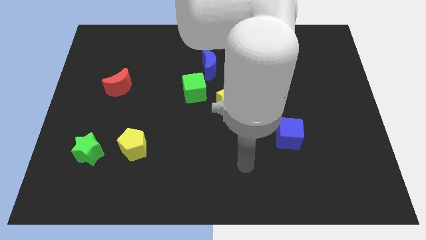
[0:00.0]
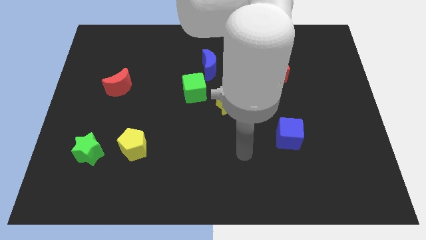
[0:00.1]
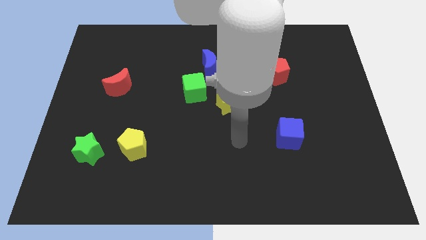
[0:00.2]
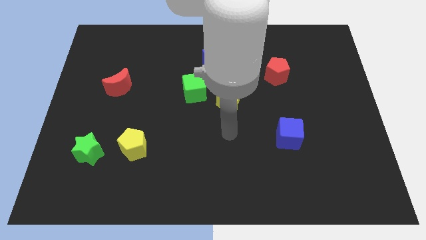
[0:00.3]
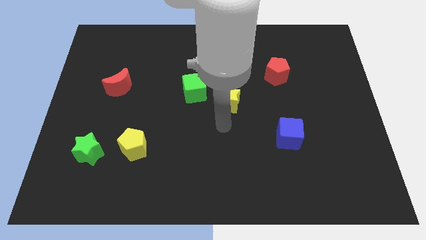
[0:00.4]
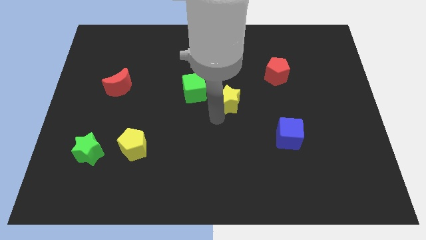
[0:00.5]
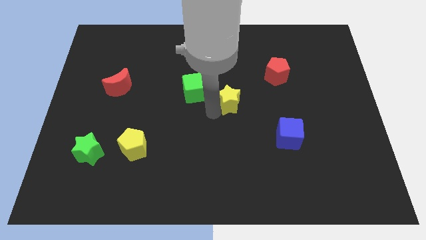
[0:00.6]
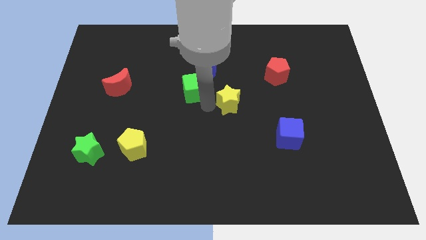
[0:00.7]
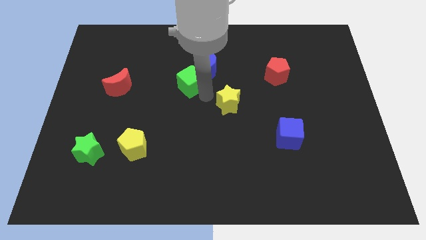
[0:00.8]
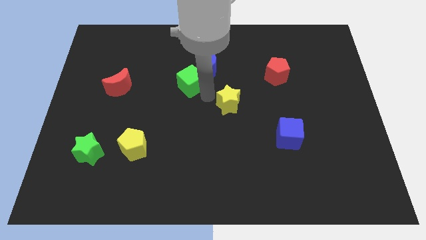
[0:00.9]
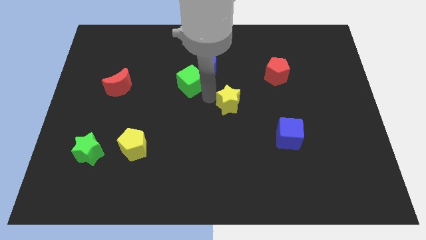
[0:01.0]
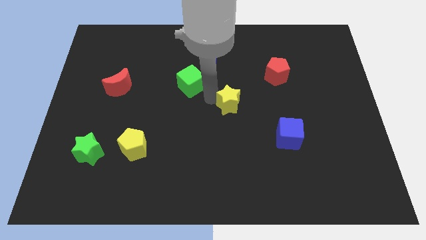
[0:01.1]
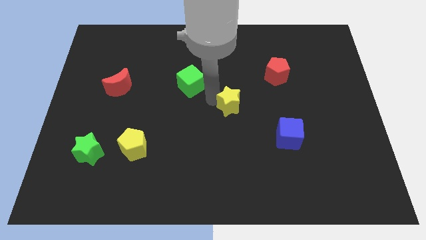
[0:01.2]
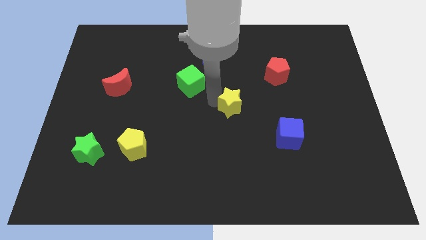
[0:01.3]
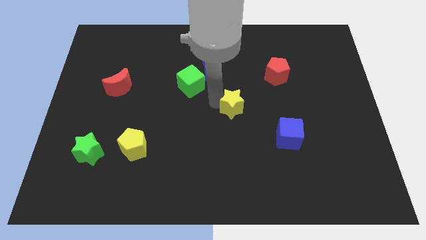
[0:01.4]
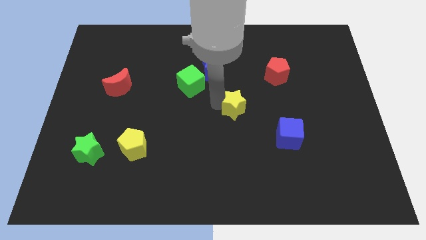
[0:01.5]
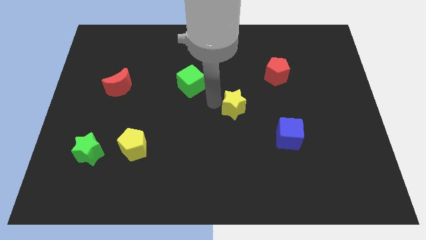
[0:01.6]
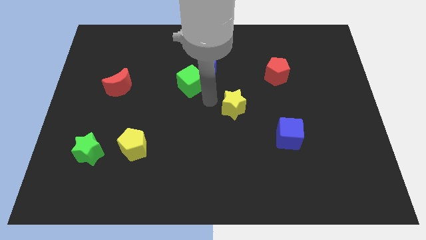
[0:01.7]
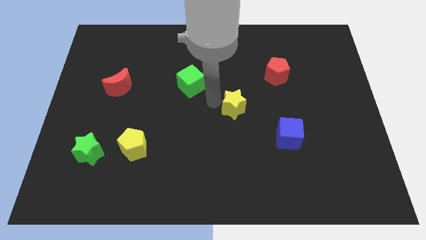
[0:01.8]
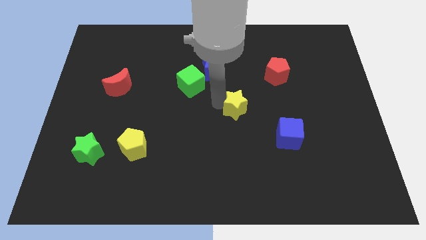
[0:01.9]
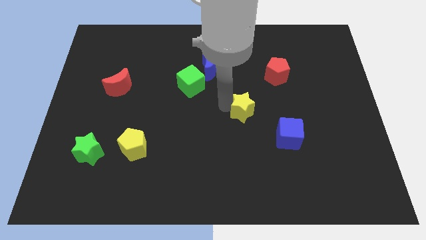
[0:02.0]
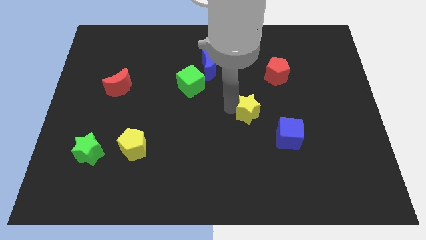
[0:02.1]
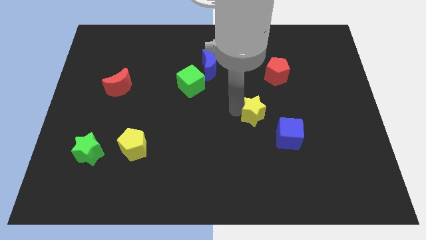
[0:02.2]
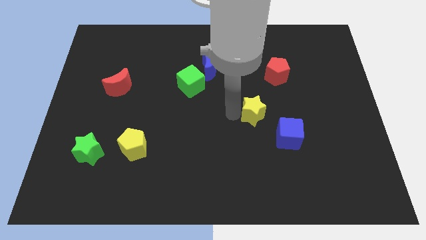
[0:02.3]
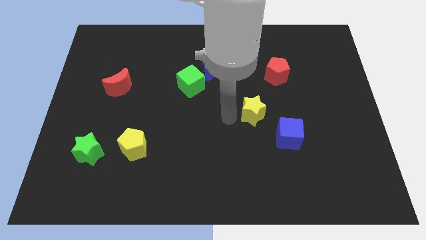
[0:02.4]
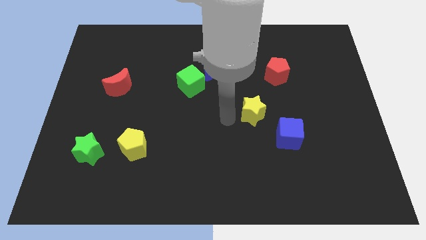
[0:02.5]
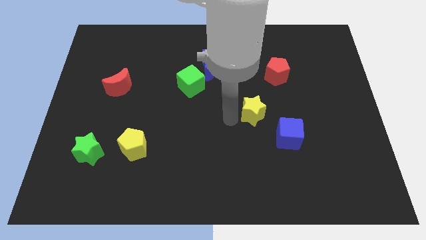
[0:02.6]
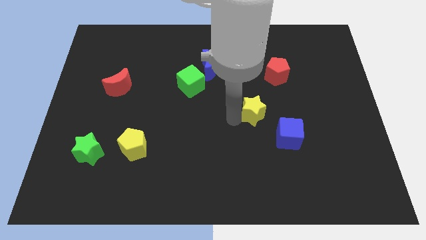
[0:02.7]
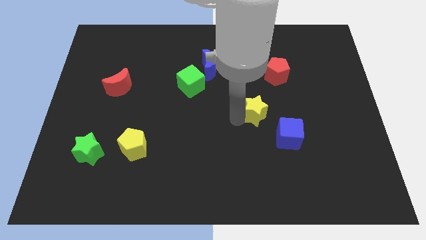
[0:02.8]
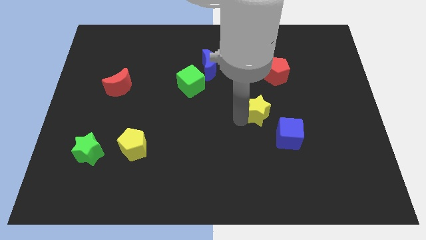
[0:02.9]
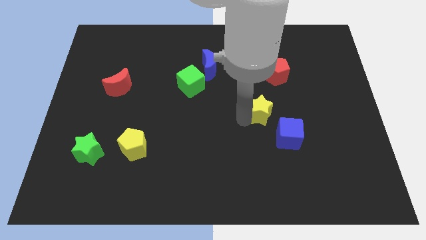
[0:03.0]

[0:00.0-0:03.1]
move the yellow star a little to the right

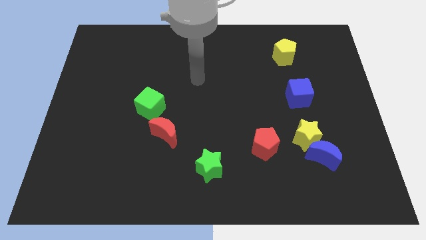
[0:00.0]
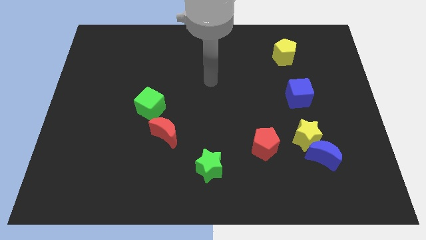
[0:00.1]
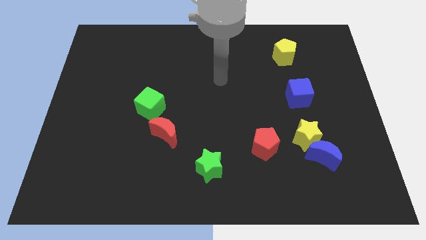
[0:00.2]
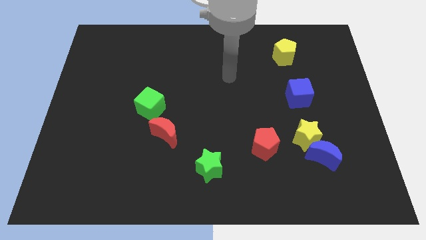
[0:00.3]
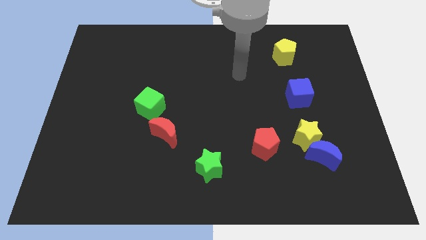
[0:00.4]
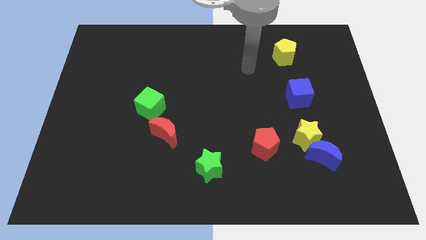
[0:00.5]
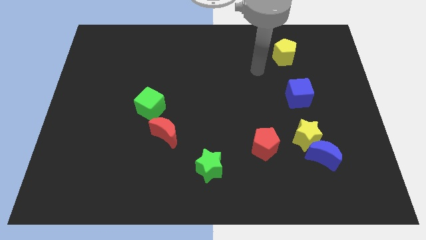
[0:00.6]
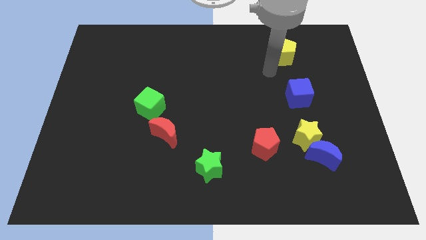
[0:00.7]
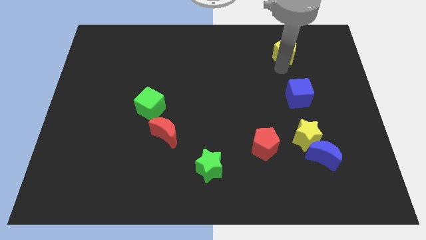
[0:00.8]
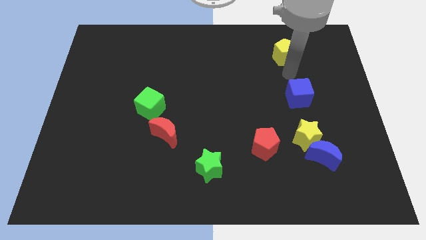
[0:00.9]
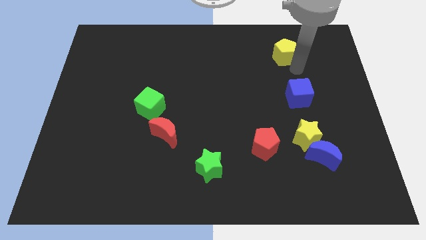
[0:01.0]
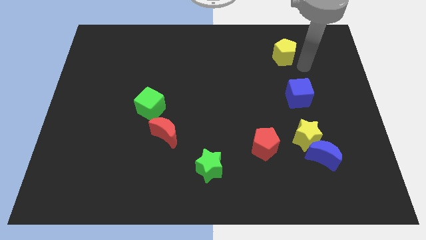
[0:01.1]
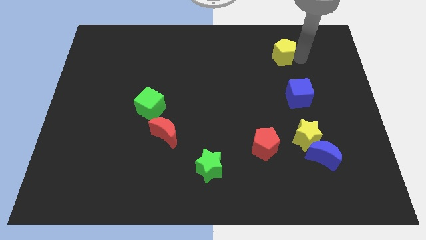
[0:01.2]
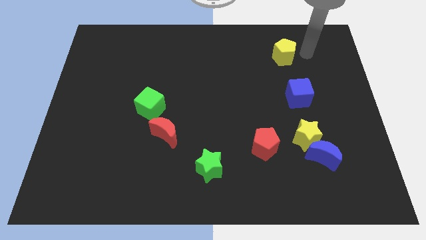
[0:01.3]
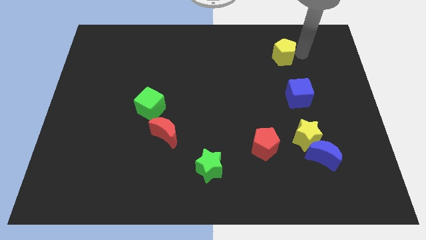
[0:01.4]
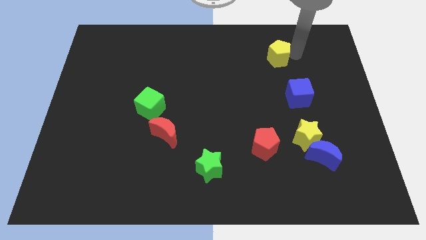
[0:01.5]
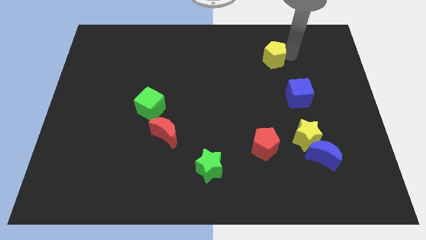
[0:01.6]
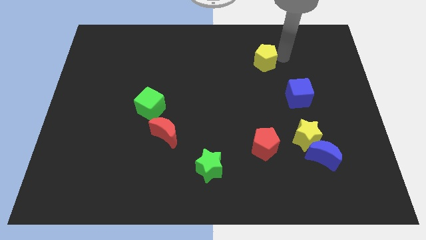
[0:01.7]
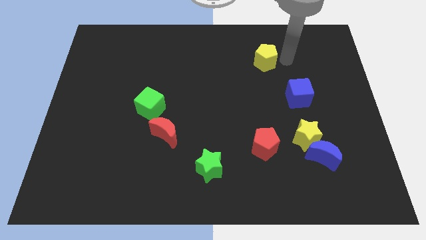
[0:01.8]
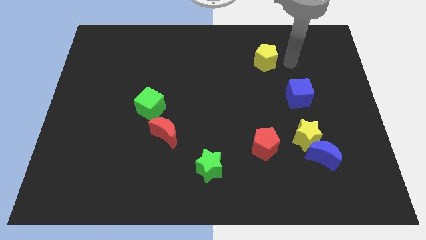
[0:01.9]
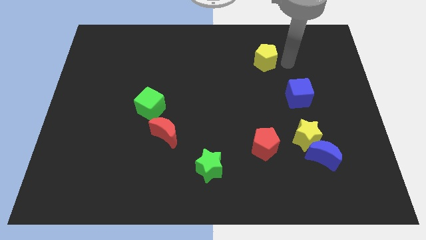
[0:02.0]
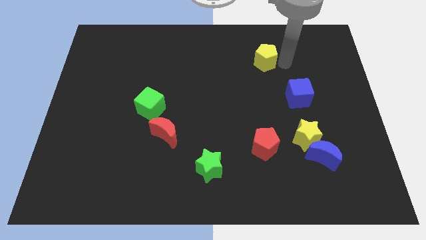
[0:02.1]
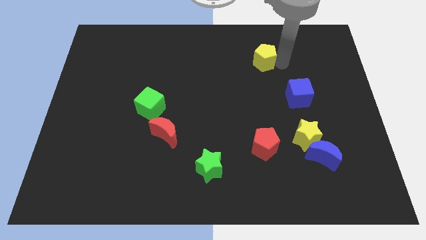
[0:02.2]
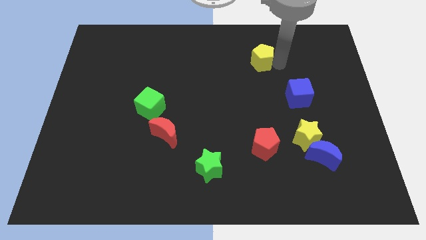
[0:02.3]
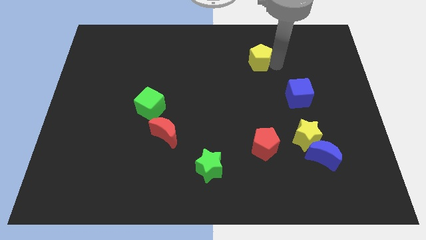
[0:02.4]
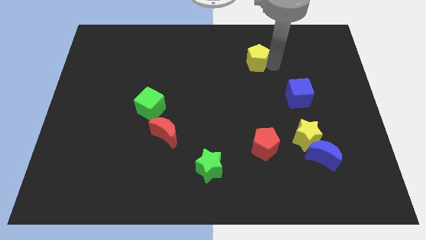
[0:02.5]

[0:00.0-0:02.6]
slightly push the yellow pentagon left

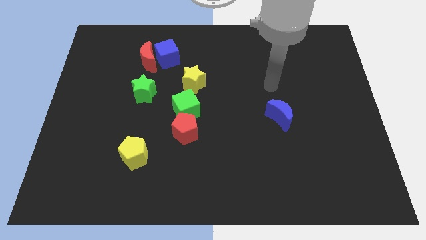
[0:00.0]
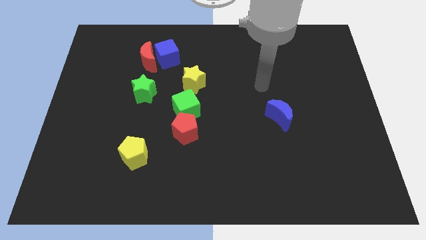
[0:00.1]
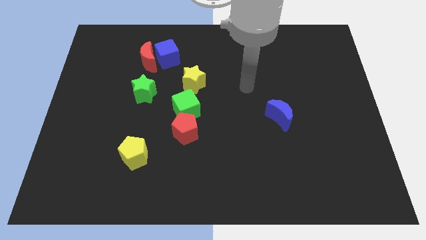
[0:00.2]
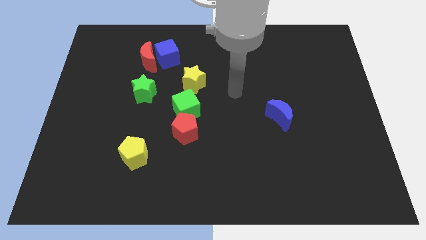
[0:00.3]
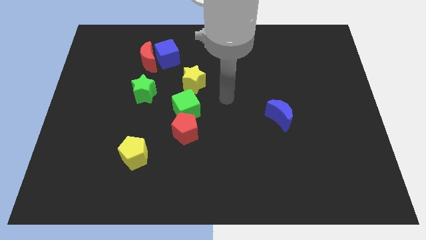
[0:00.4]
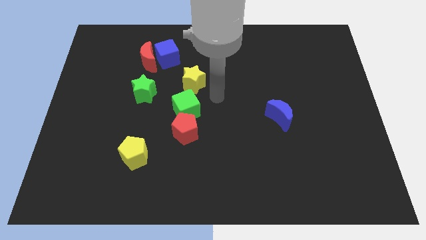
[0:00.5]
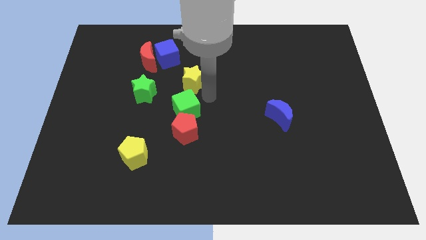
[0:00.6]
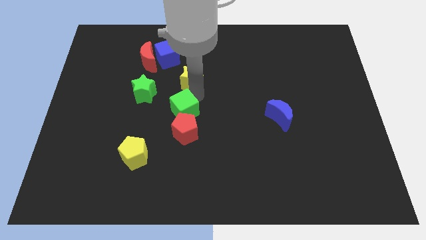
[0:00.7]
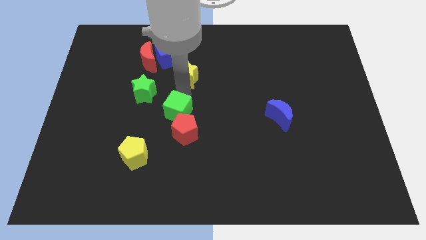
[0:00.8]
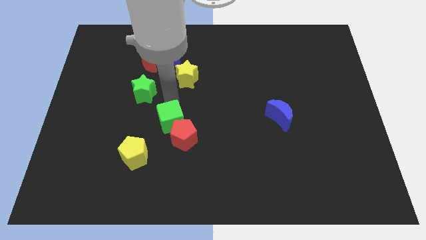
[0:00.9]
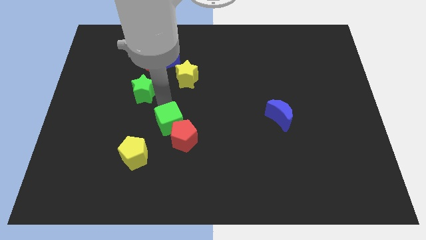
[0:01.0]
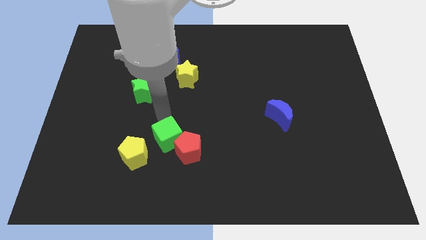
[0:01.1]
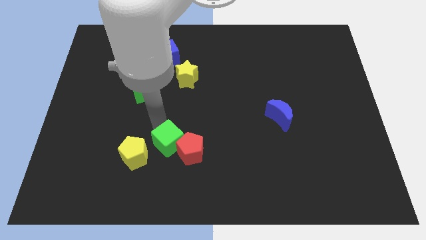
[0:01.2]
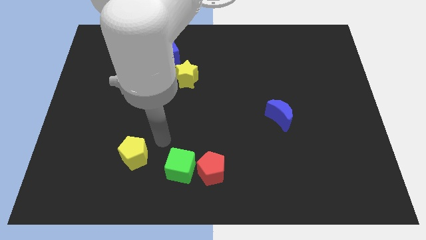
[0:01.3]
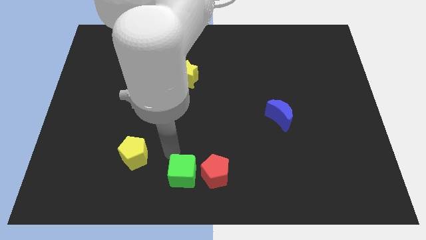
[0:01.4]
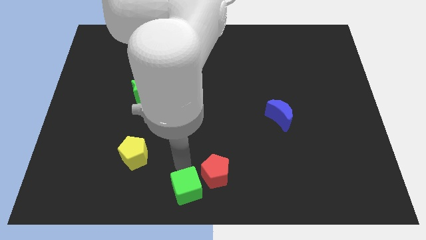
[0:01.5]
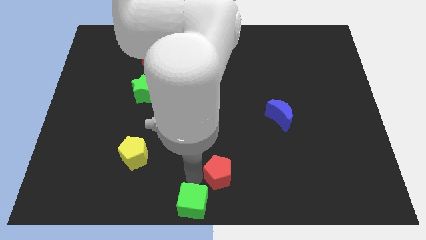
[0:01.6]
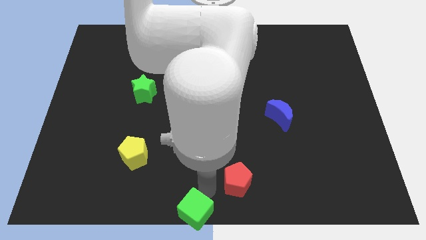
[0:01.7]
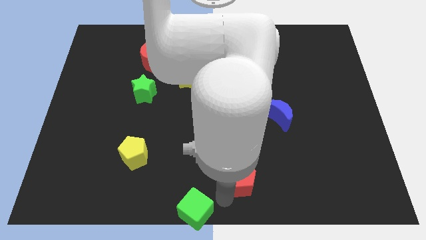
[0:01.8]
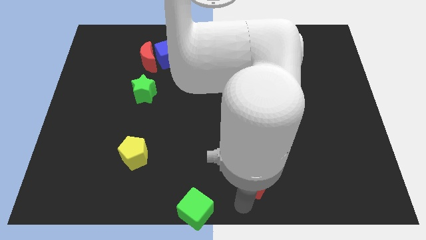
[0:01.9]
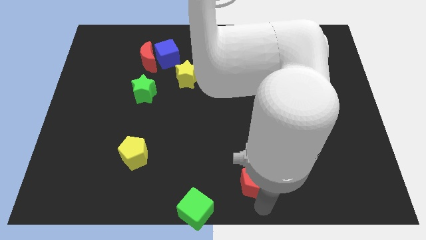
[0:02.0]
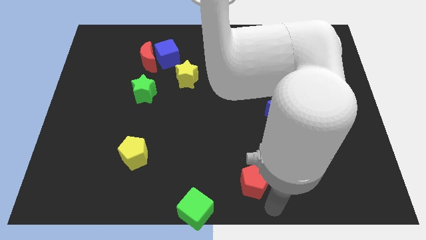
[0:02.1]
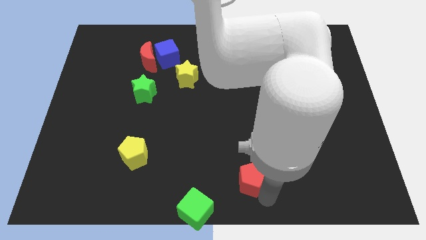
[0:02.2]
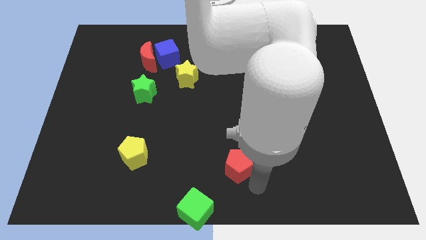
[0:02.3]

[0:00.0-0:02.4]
slide the red pentagon slightly right
